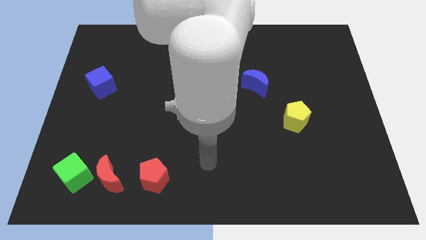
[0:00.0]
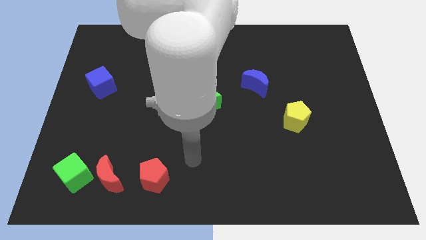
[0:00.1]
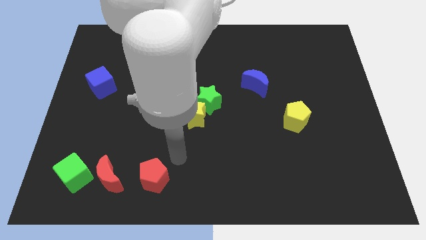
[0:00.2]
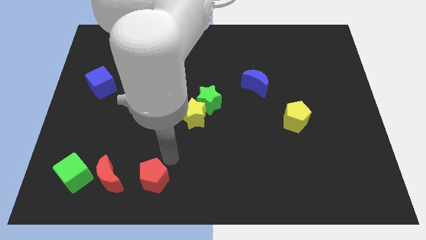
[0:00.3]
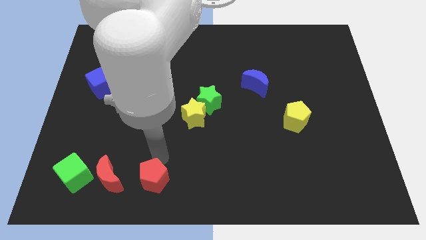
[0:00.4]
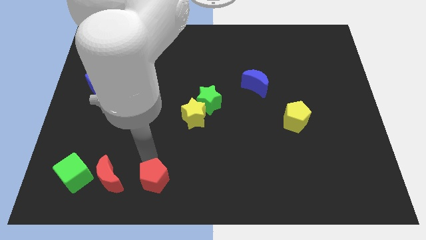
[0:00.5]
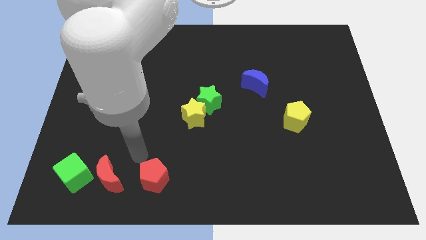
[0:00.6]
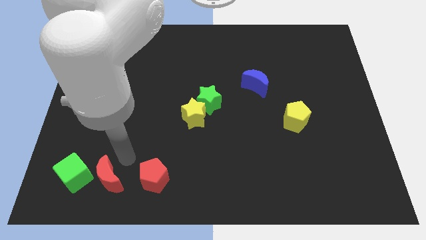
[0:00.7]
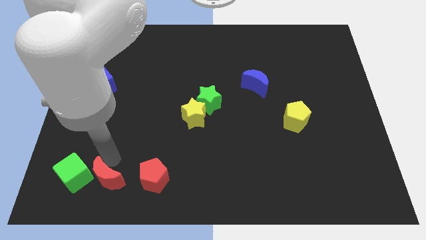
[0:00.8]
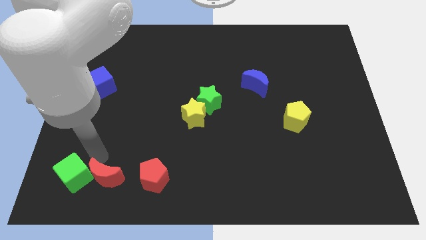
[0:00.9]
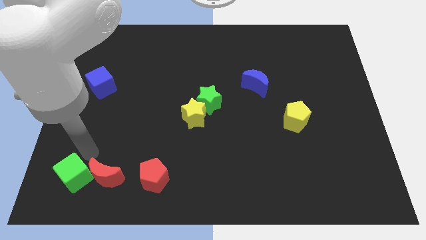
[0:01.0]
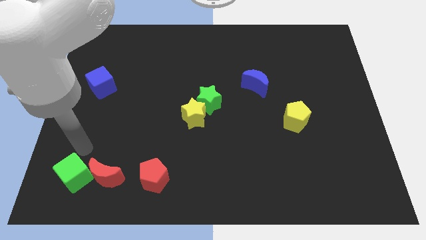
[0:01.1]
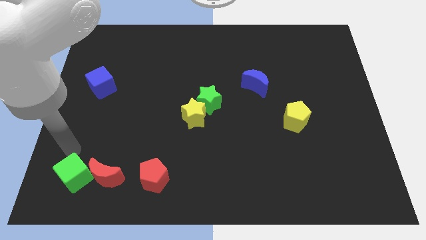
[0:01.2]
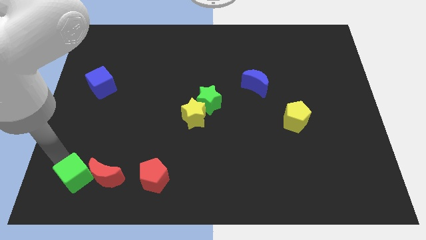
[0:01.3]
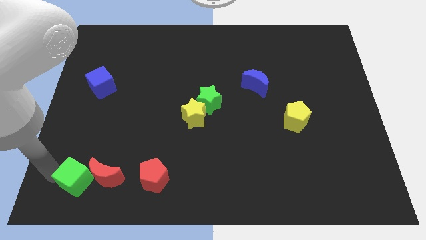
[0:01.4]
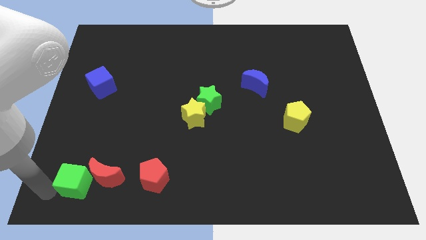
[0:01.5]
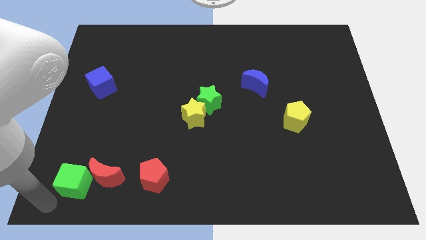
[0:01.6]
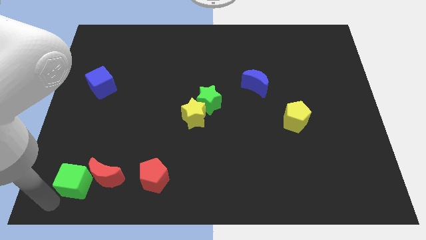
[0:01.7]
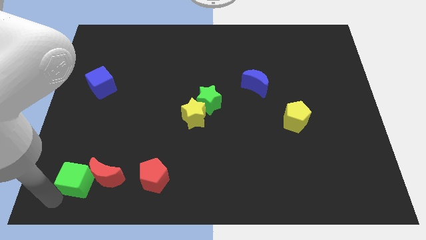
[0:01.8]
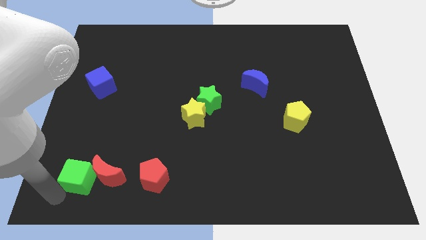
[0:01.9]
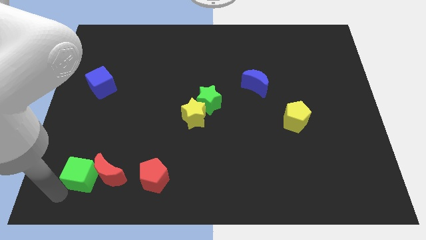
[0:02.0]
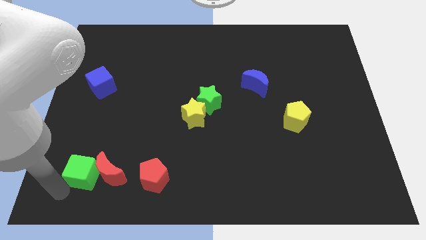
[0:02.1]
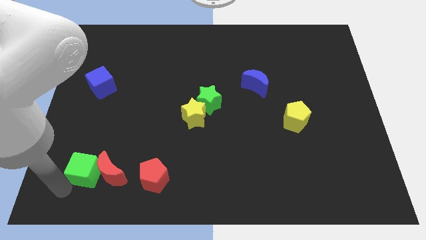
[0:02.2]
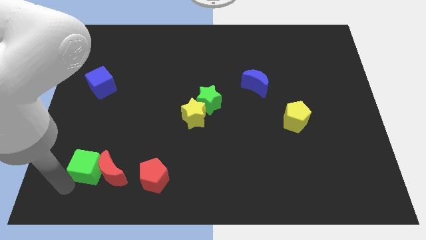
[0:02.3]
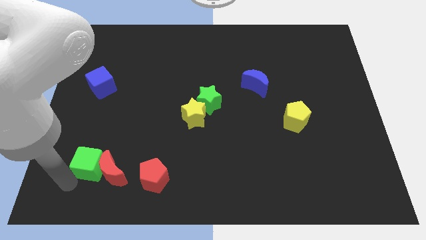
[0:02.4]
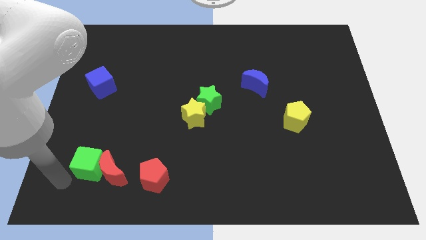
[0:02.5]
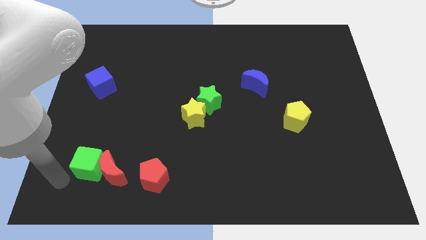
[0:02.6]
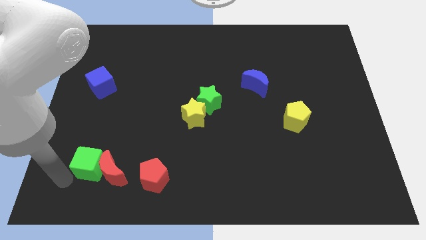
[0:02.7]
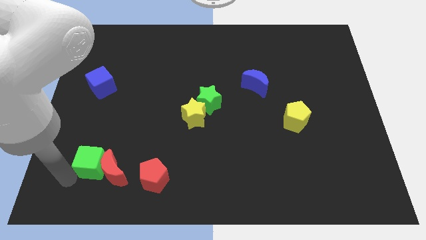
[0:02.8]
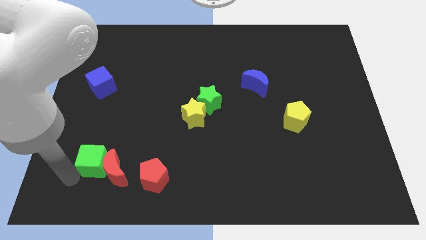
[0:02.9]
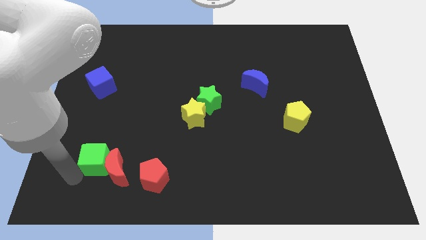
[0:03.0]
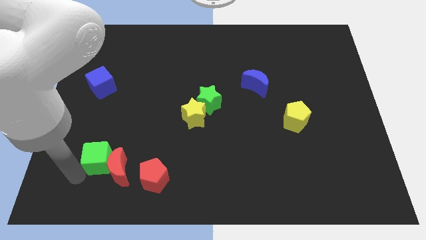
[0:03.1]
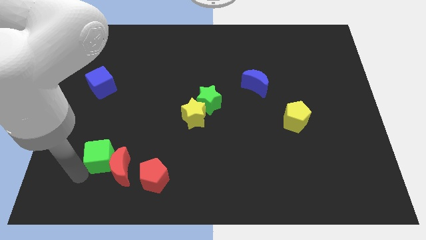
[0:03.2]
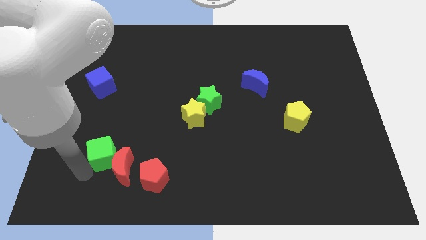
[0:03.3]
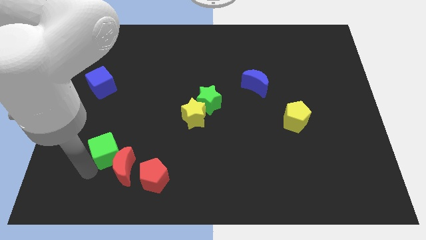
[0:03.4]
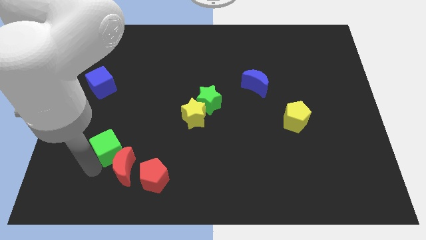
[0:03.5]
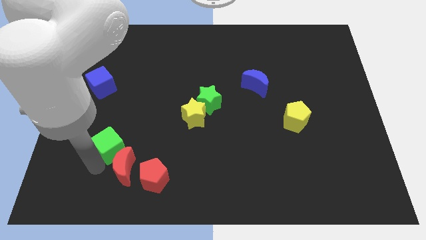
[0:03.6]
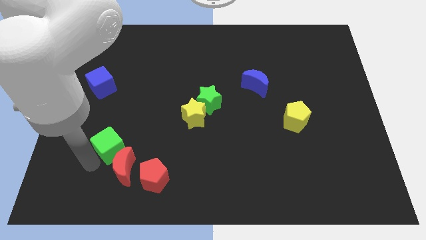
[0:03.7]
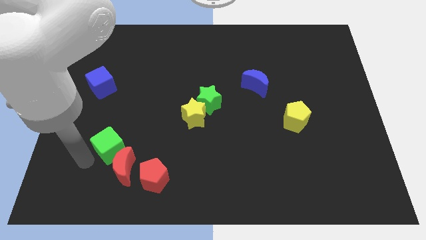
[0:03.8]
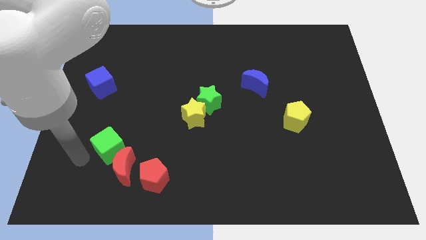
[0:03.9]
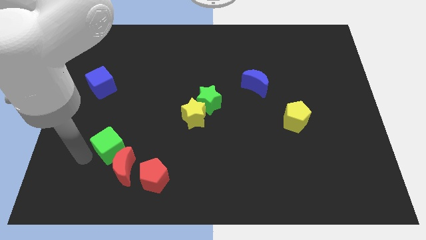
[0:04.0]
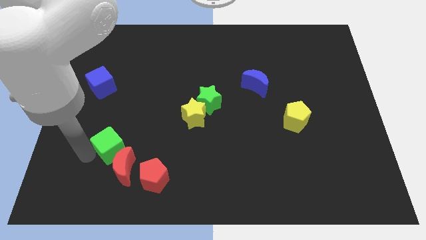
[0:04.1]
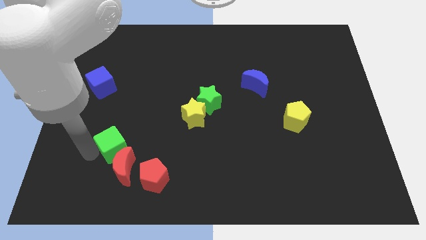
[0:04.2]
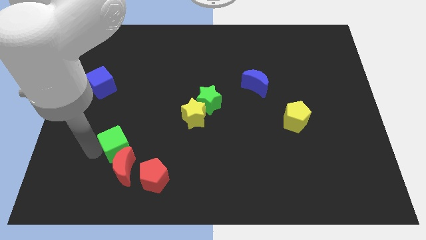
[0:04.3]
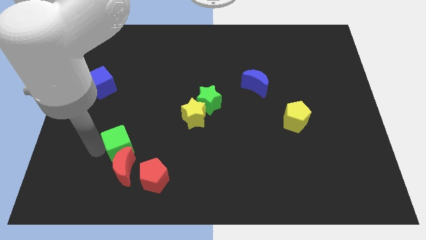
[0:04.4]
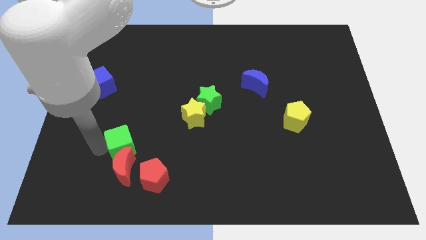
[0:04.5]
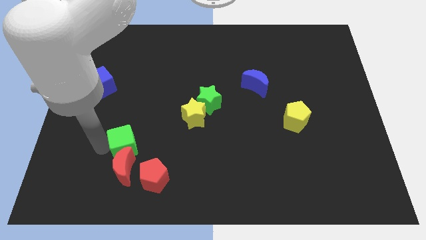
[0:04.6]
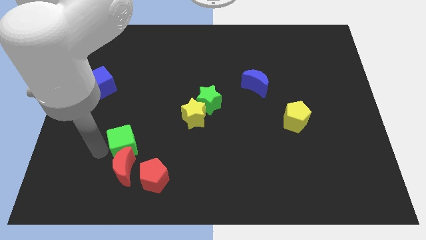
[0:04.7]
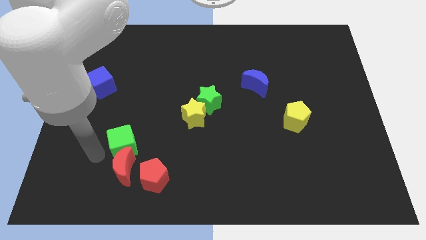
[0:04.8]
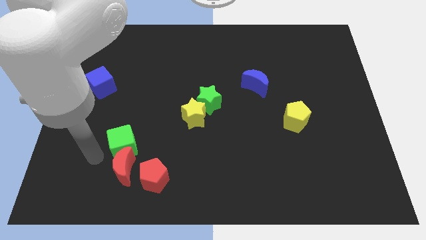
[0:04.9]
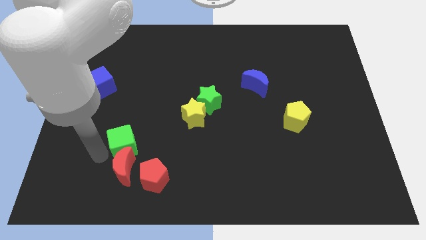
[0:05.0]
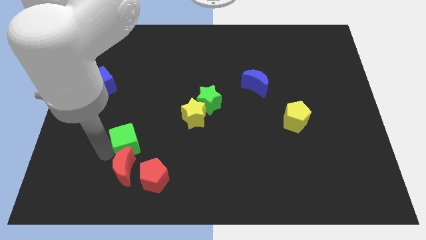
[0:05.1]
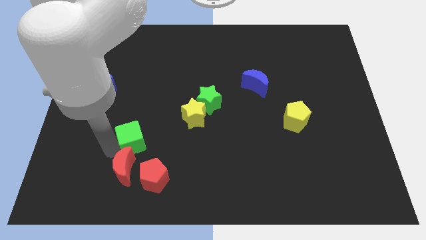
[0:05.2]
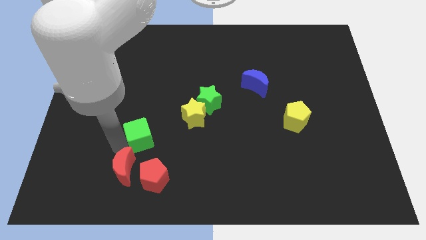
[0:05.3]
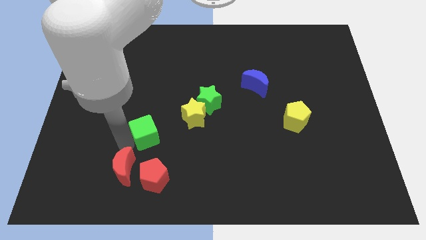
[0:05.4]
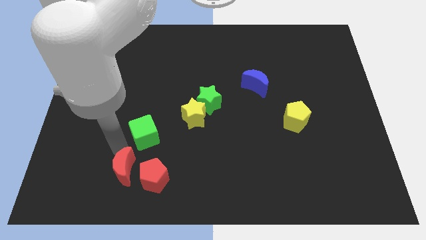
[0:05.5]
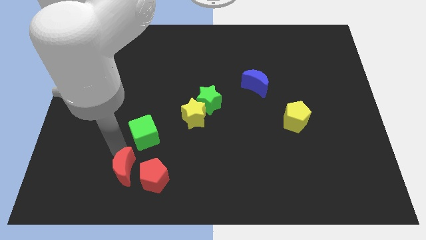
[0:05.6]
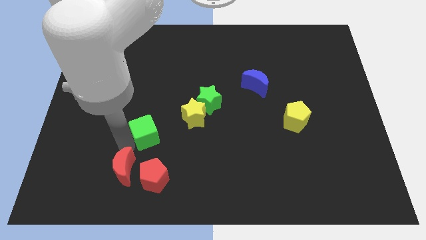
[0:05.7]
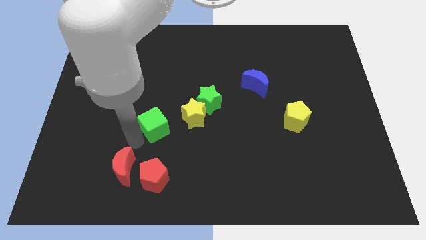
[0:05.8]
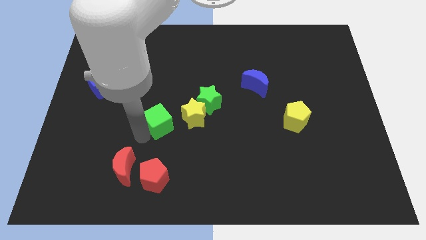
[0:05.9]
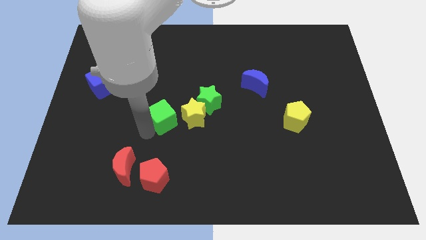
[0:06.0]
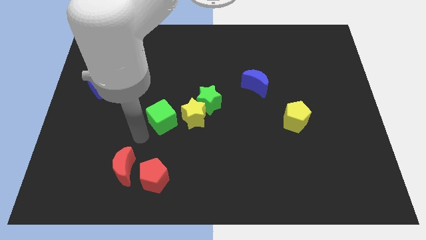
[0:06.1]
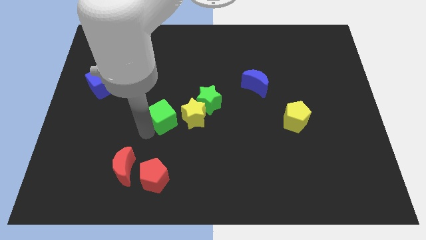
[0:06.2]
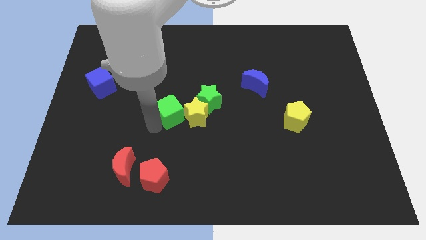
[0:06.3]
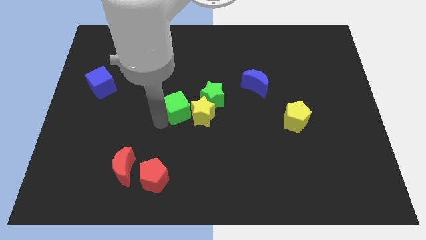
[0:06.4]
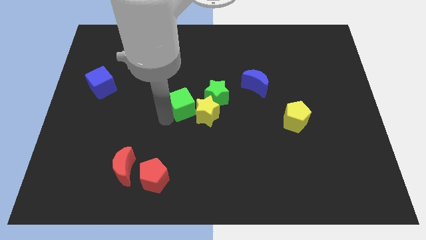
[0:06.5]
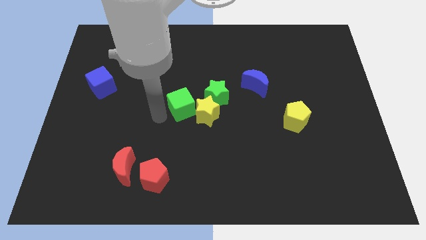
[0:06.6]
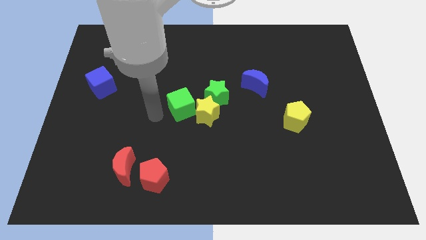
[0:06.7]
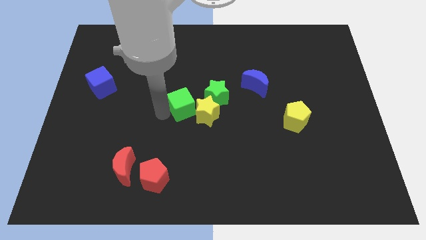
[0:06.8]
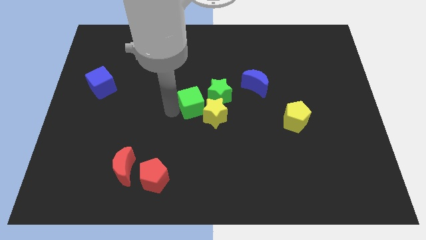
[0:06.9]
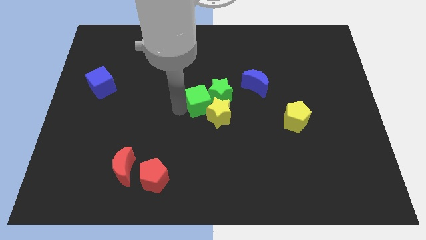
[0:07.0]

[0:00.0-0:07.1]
push the green cube towards the green star
